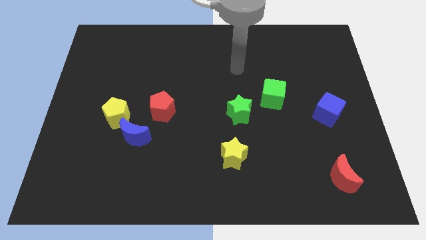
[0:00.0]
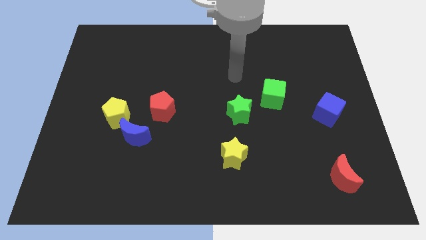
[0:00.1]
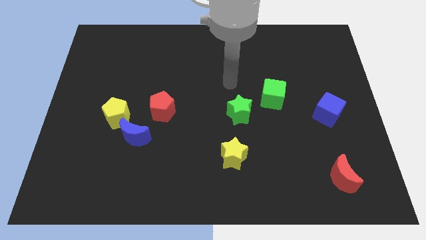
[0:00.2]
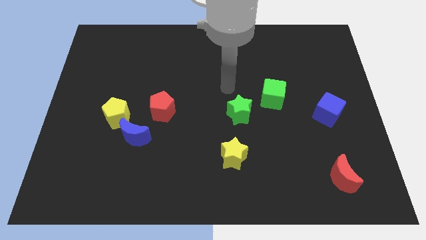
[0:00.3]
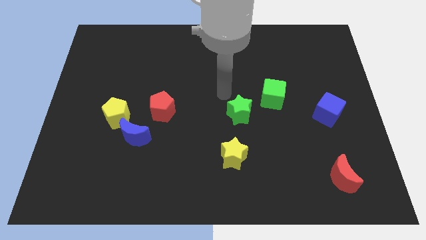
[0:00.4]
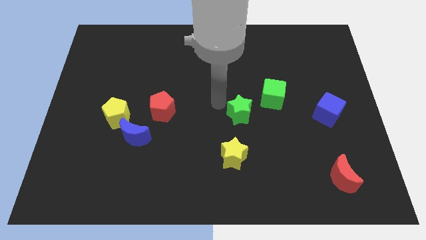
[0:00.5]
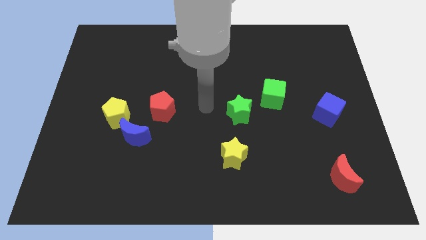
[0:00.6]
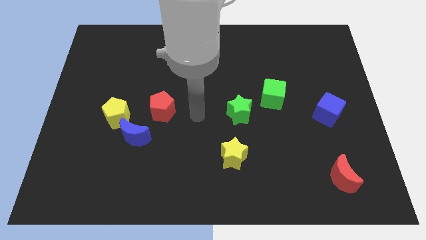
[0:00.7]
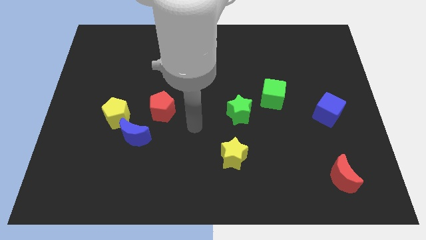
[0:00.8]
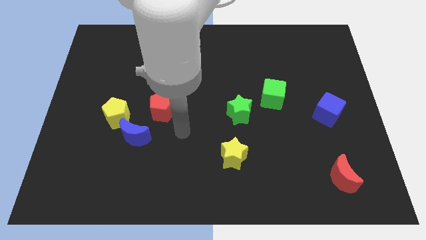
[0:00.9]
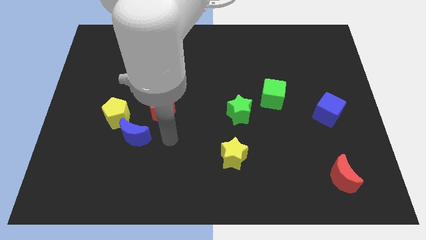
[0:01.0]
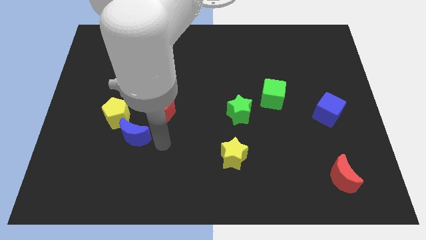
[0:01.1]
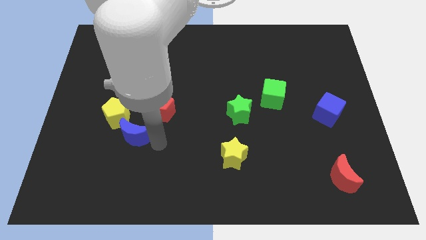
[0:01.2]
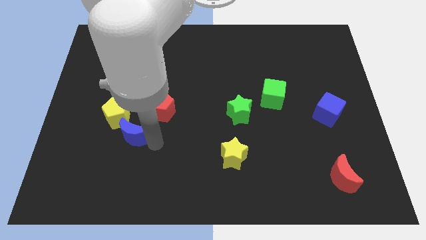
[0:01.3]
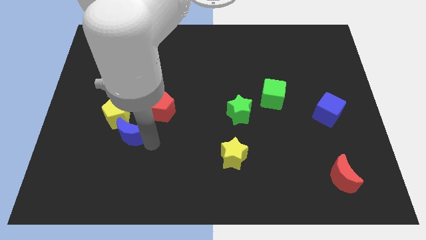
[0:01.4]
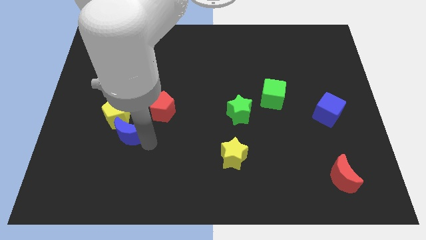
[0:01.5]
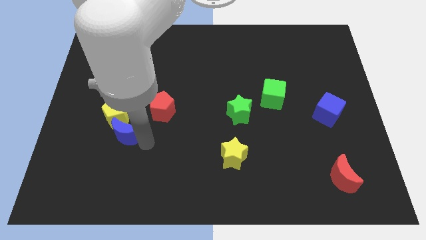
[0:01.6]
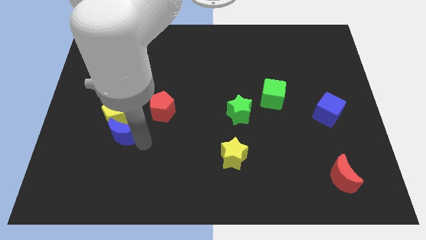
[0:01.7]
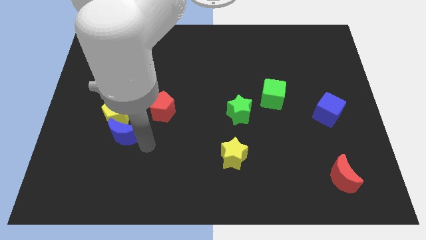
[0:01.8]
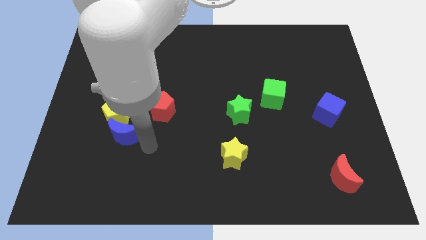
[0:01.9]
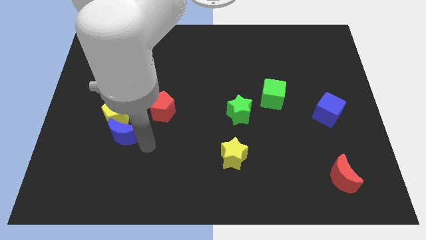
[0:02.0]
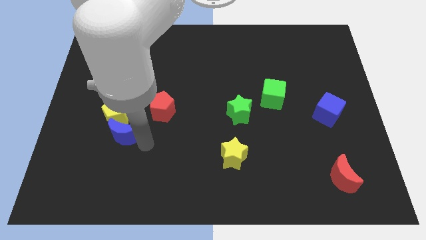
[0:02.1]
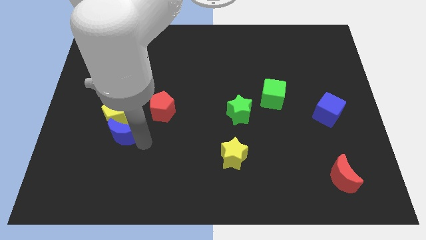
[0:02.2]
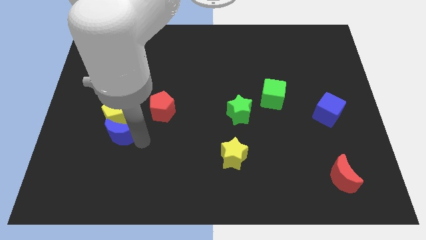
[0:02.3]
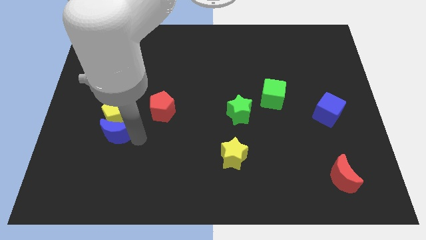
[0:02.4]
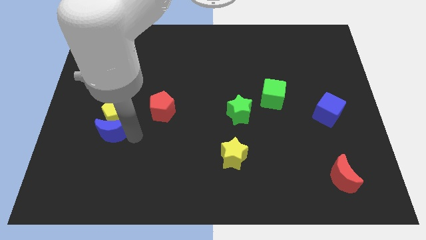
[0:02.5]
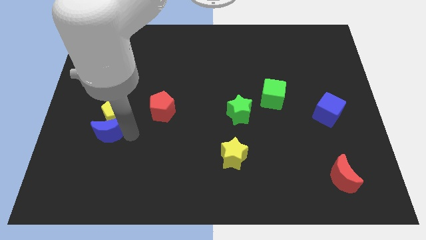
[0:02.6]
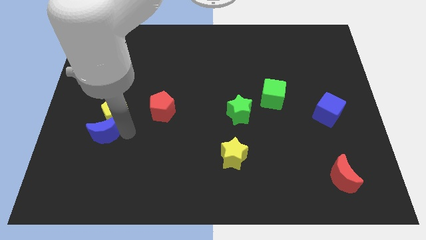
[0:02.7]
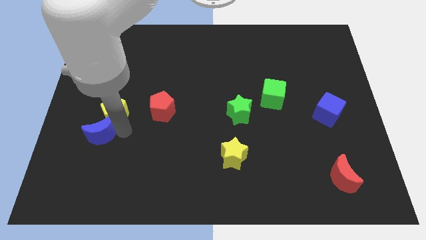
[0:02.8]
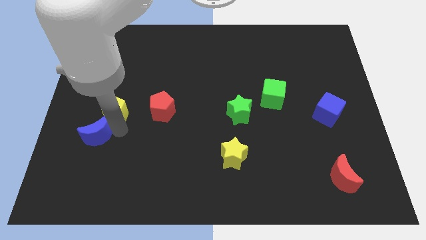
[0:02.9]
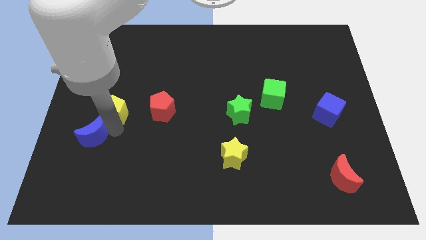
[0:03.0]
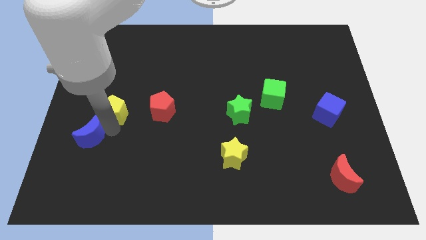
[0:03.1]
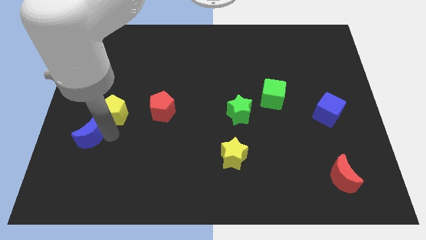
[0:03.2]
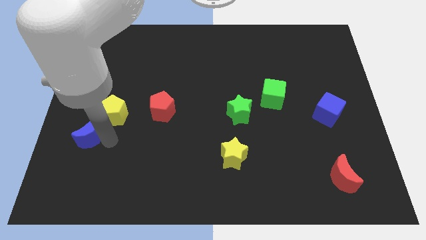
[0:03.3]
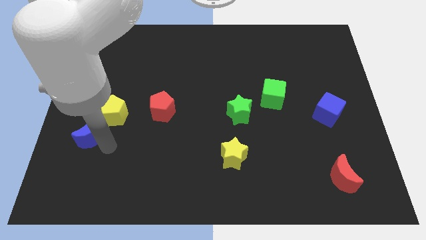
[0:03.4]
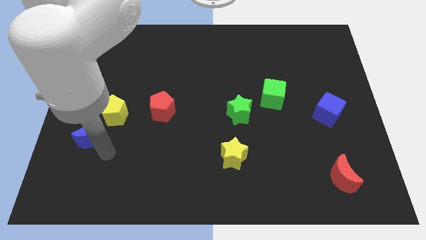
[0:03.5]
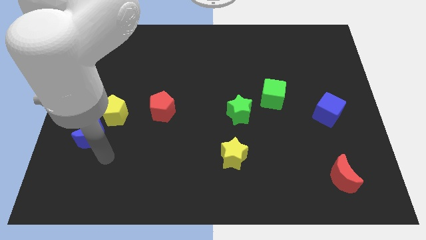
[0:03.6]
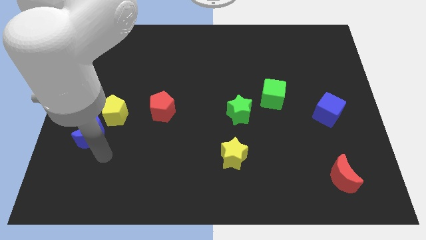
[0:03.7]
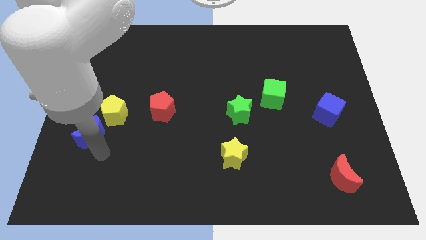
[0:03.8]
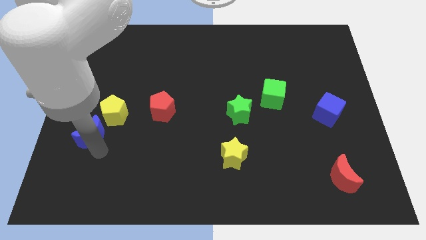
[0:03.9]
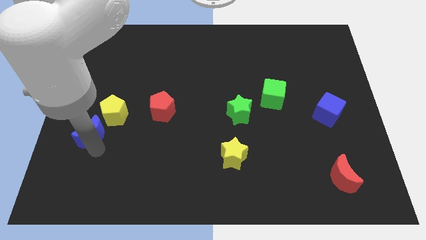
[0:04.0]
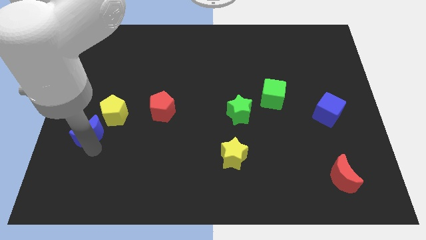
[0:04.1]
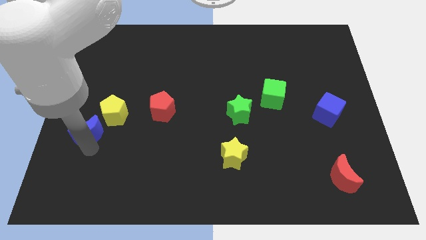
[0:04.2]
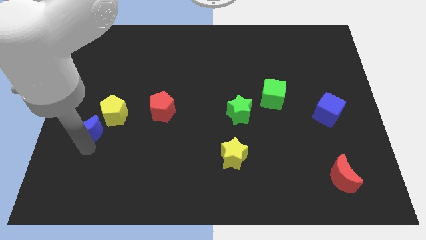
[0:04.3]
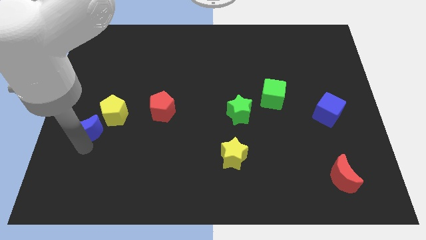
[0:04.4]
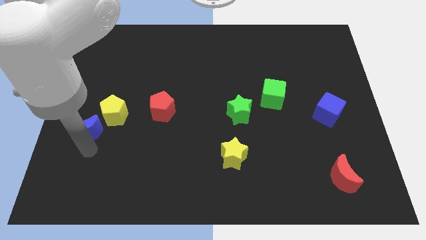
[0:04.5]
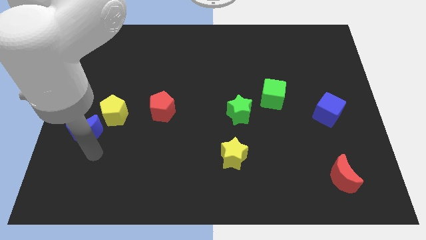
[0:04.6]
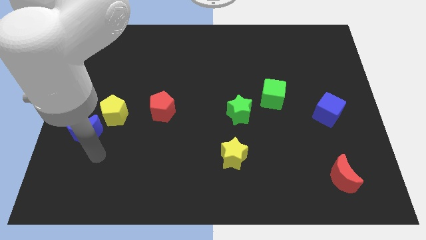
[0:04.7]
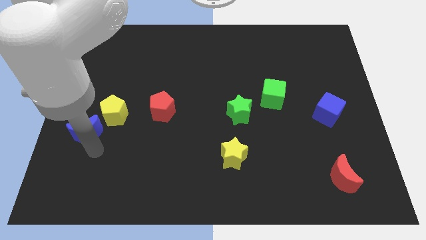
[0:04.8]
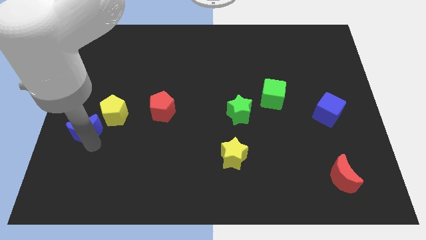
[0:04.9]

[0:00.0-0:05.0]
slide the blue moon to the center left
